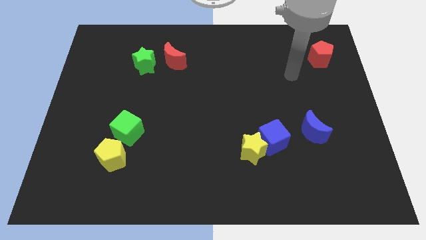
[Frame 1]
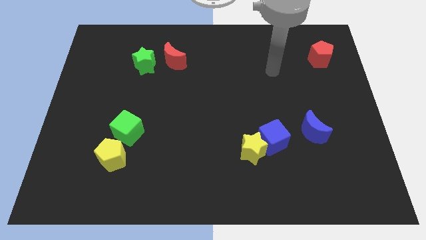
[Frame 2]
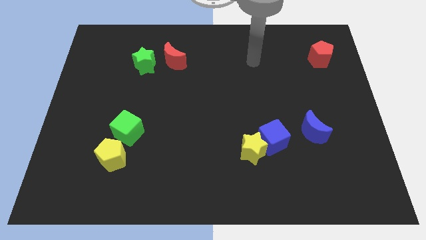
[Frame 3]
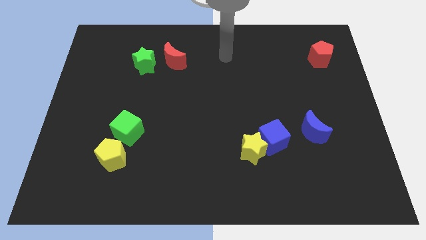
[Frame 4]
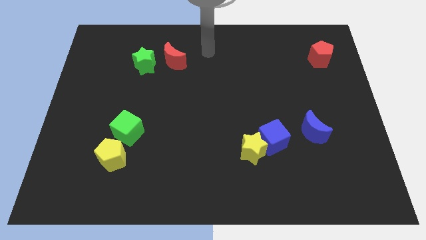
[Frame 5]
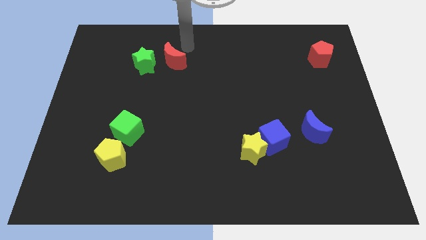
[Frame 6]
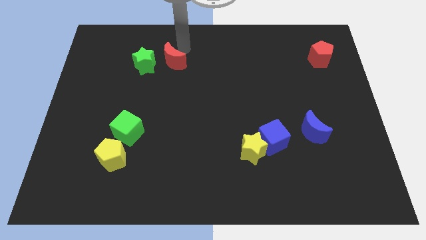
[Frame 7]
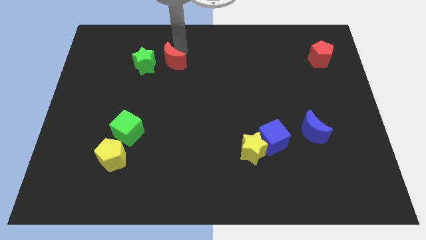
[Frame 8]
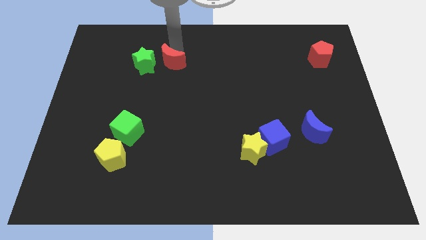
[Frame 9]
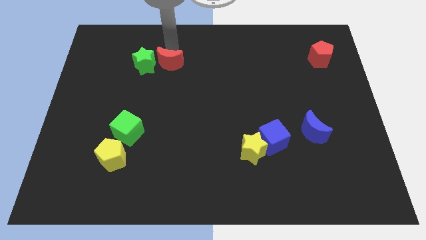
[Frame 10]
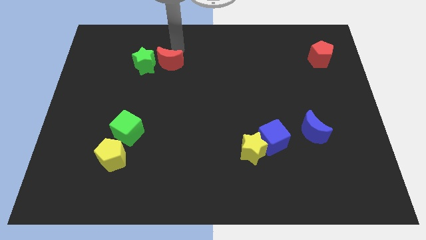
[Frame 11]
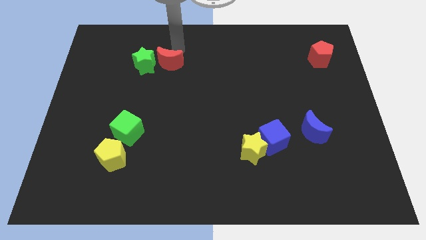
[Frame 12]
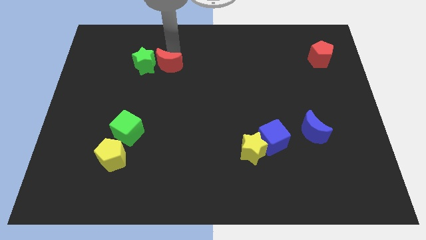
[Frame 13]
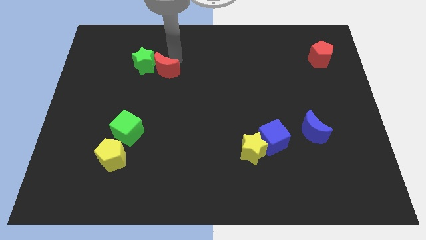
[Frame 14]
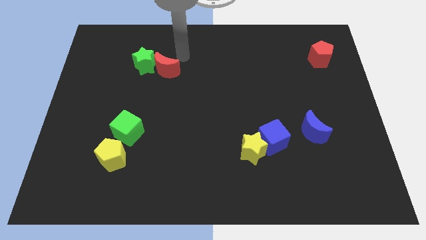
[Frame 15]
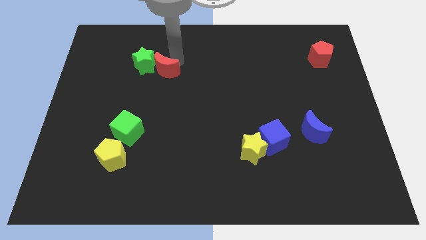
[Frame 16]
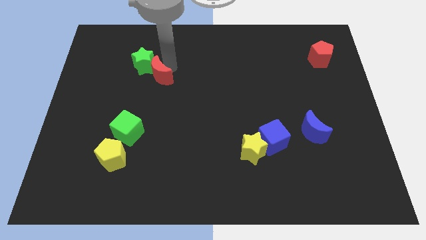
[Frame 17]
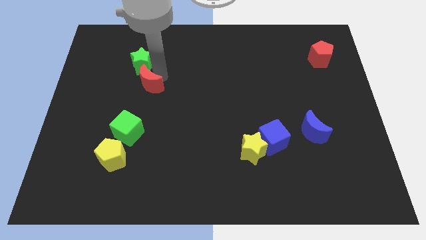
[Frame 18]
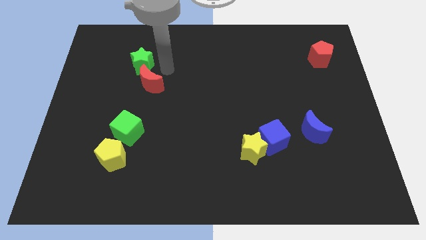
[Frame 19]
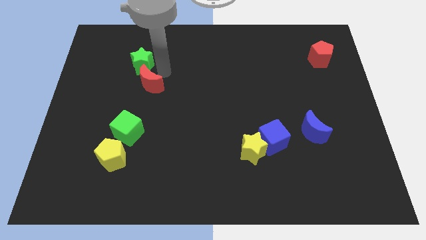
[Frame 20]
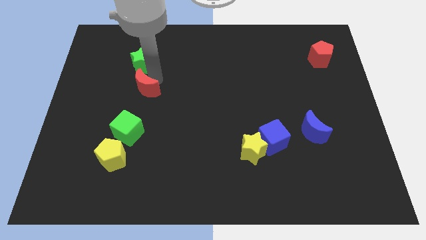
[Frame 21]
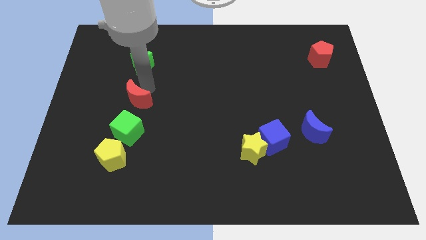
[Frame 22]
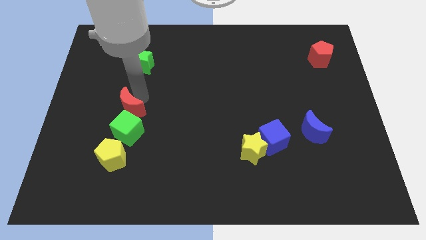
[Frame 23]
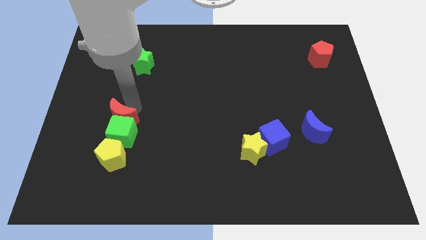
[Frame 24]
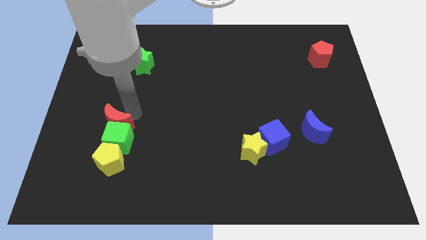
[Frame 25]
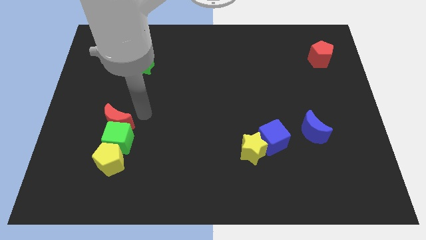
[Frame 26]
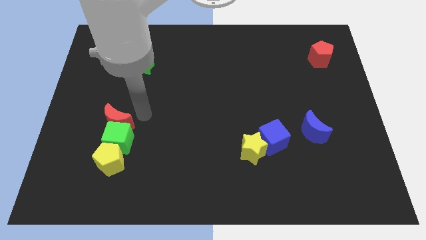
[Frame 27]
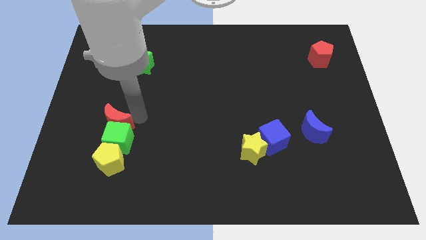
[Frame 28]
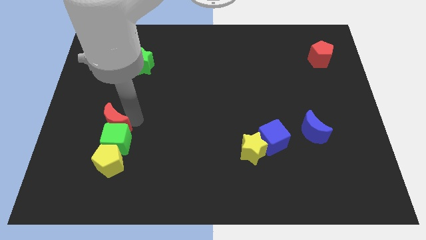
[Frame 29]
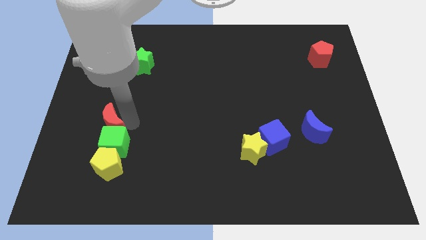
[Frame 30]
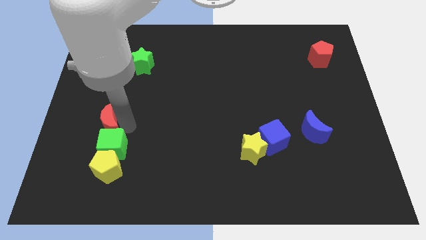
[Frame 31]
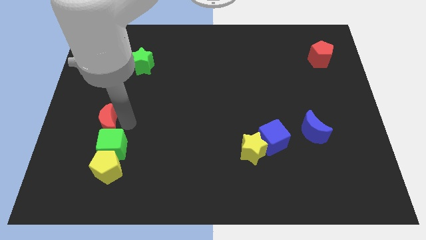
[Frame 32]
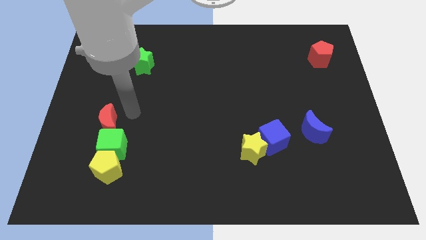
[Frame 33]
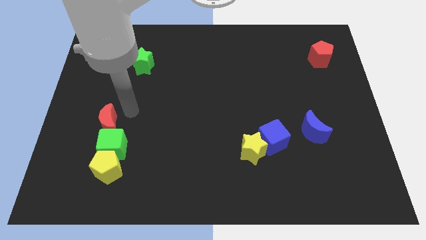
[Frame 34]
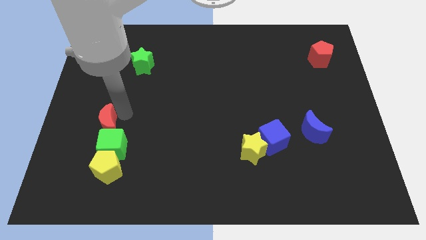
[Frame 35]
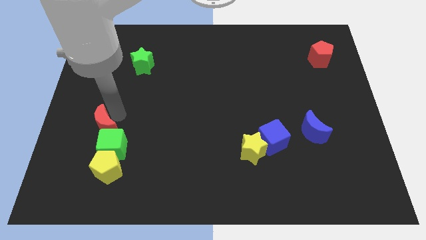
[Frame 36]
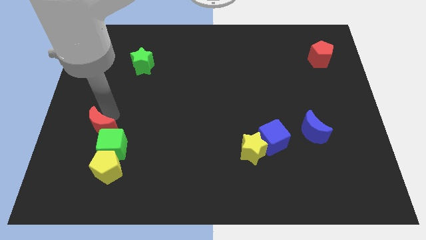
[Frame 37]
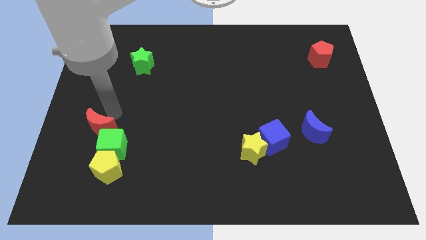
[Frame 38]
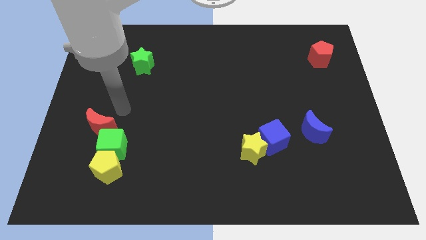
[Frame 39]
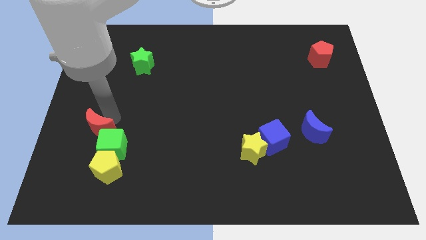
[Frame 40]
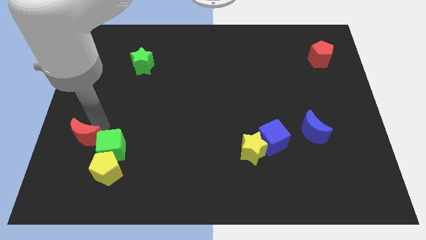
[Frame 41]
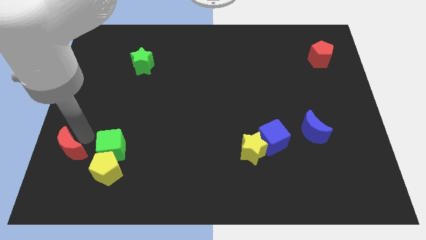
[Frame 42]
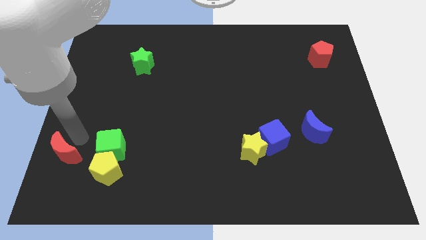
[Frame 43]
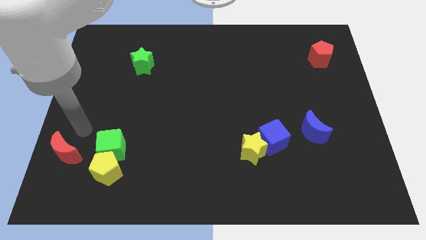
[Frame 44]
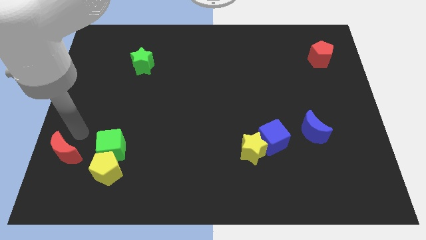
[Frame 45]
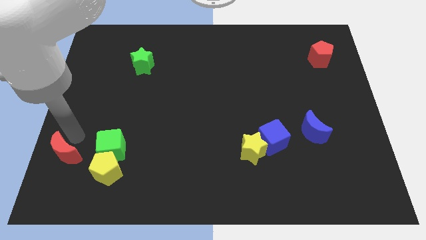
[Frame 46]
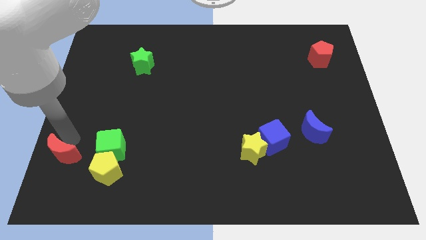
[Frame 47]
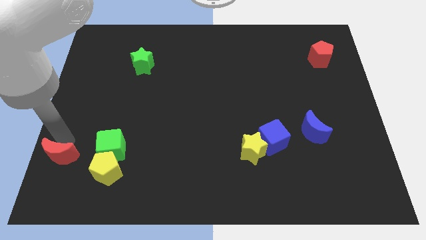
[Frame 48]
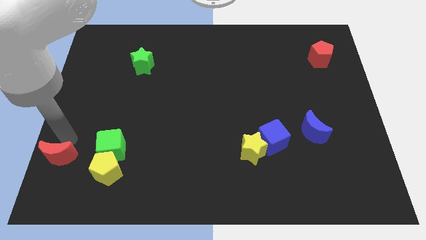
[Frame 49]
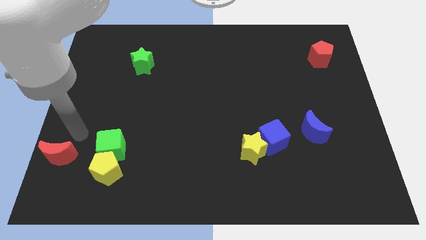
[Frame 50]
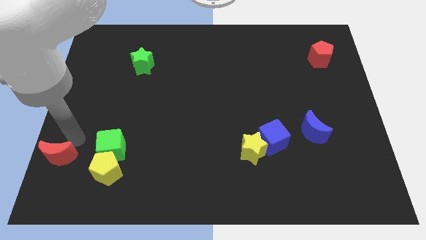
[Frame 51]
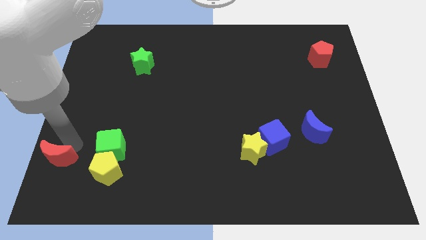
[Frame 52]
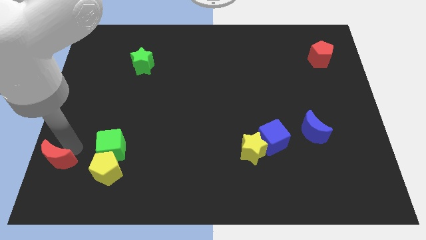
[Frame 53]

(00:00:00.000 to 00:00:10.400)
push the red moon to the bottom left

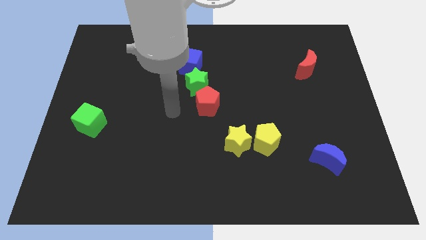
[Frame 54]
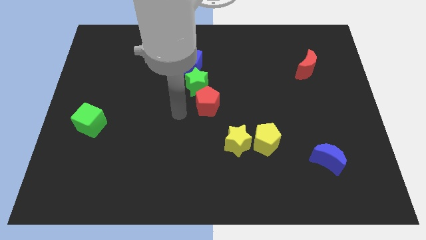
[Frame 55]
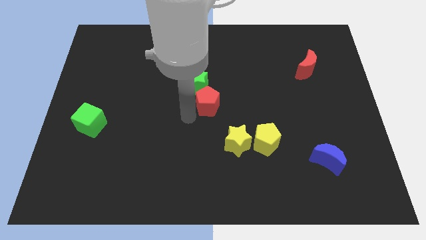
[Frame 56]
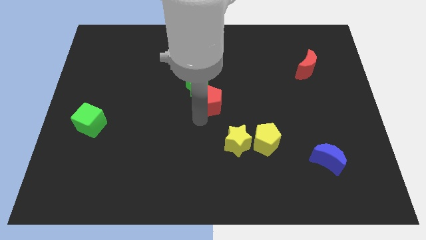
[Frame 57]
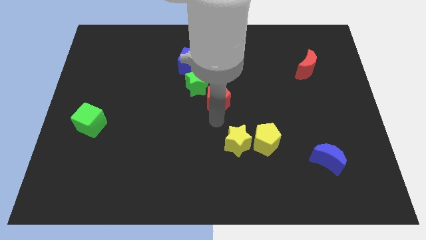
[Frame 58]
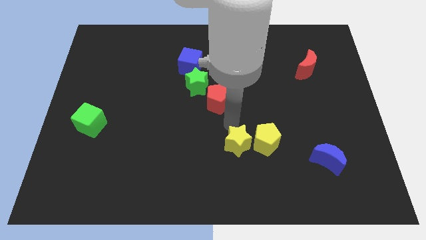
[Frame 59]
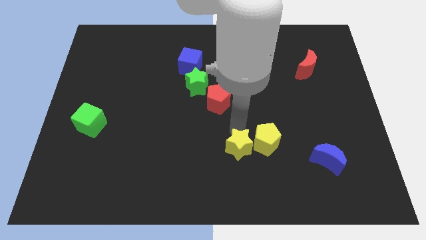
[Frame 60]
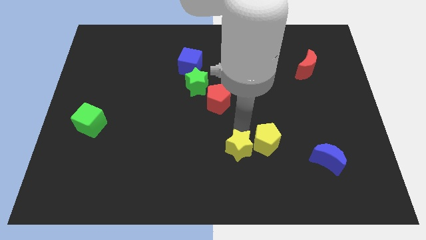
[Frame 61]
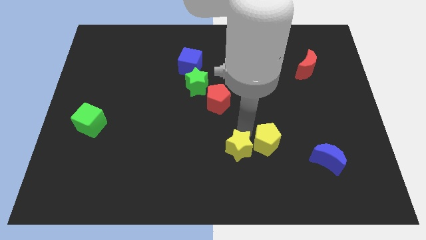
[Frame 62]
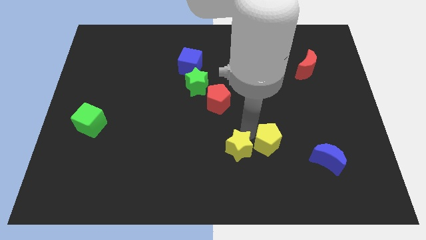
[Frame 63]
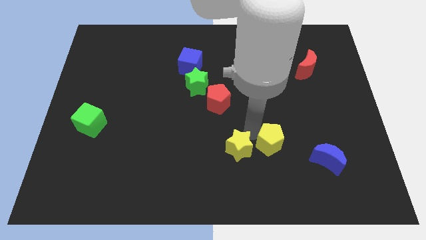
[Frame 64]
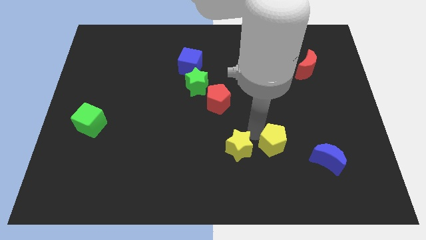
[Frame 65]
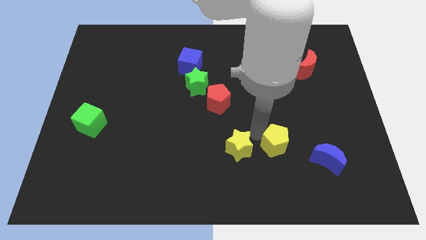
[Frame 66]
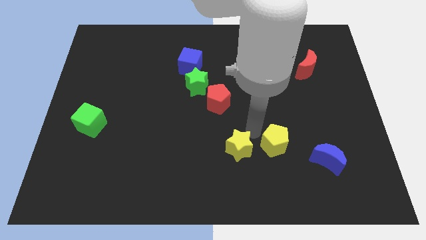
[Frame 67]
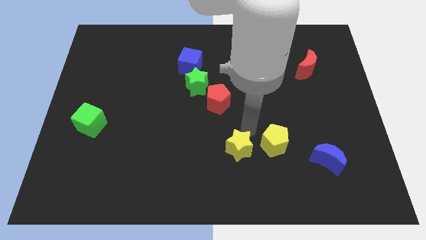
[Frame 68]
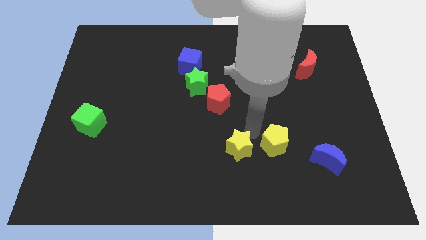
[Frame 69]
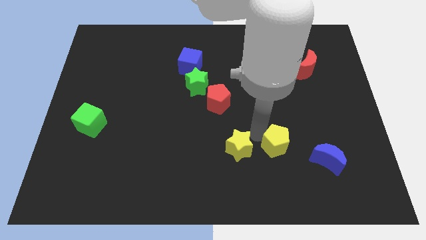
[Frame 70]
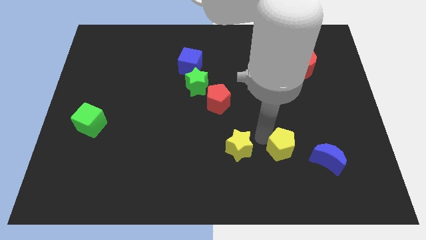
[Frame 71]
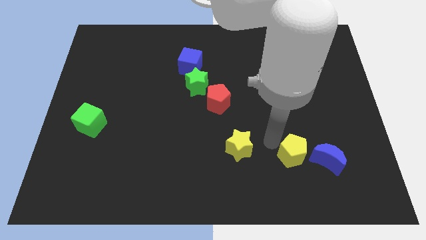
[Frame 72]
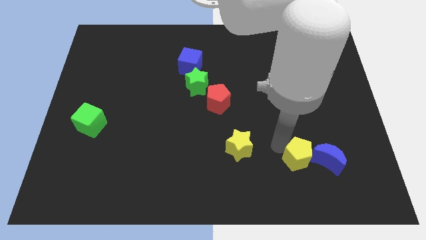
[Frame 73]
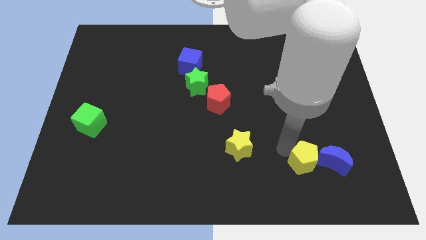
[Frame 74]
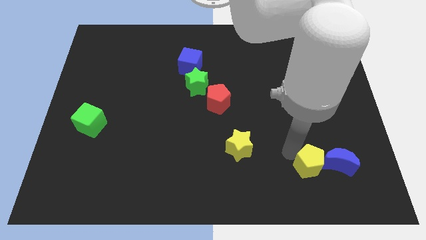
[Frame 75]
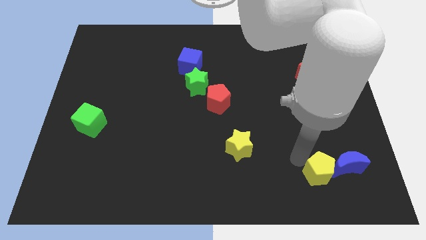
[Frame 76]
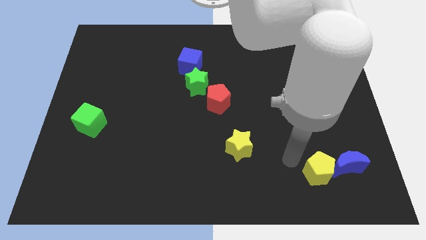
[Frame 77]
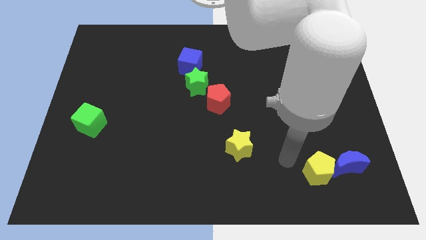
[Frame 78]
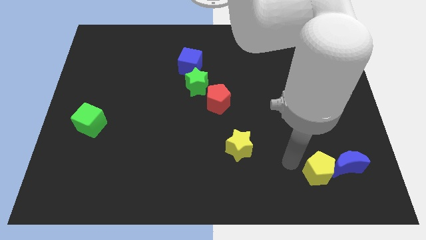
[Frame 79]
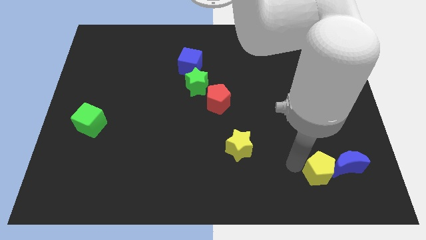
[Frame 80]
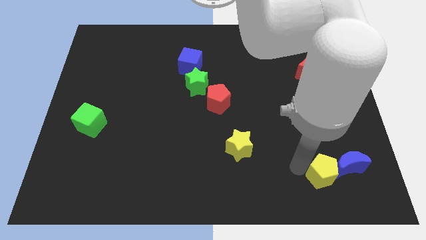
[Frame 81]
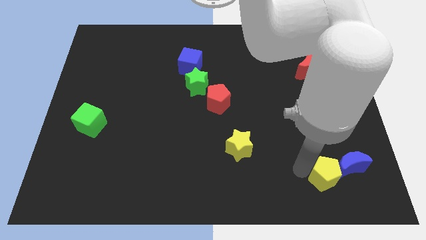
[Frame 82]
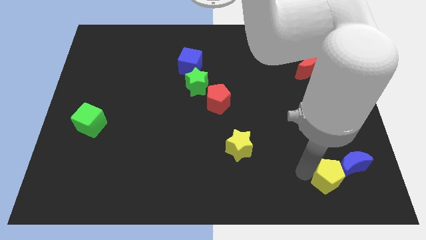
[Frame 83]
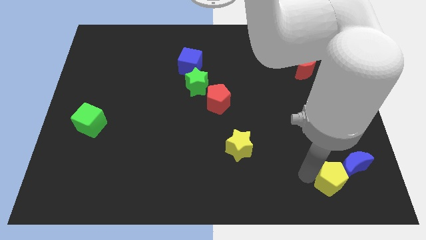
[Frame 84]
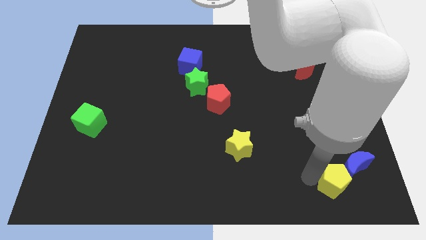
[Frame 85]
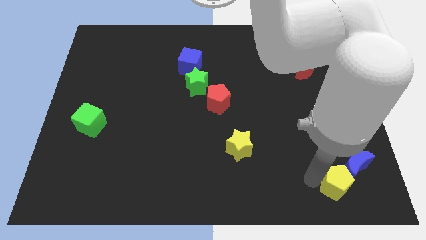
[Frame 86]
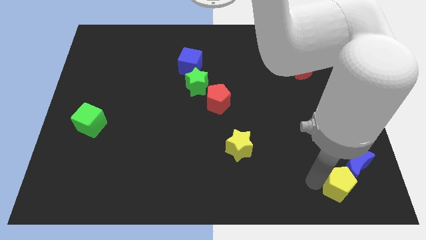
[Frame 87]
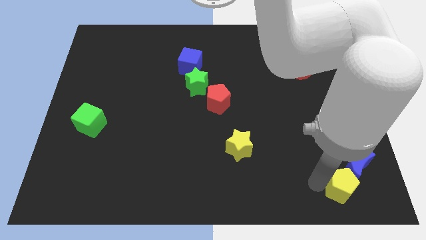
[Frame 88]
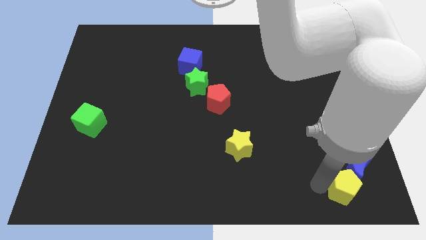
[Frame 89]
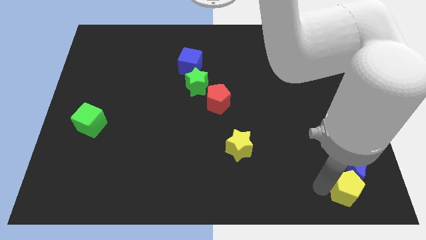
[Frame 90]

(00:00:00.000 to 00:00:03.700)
put the yellow pentagon to the lower right corner
